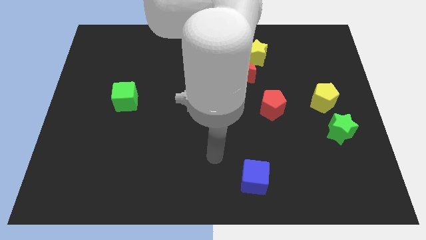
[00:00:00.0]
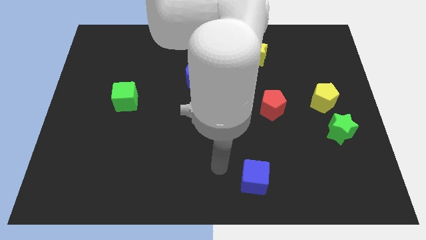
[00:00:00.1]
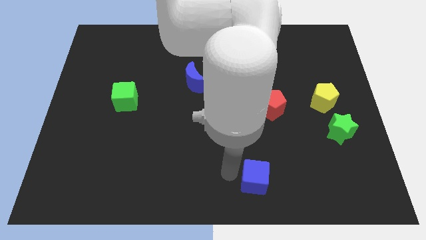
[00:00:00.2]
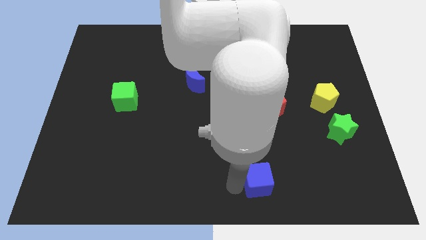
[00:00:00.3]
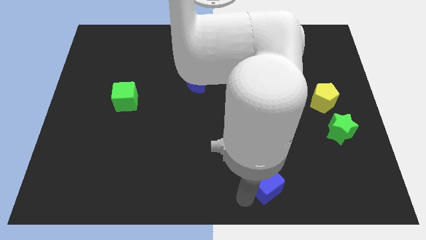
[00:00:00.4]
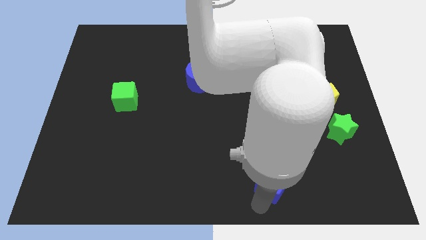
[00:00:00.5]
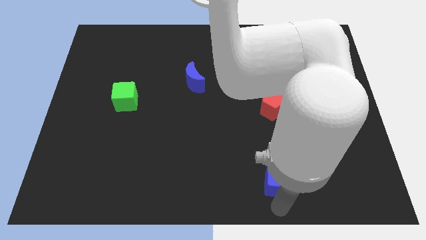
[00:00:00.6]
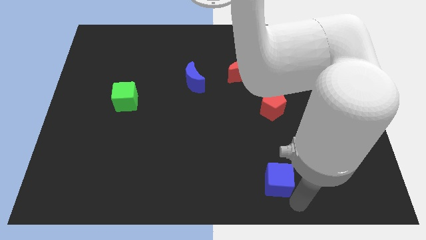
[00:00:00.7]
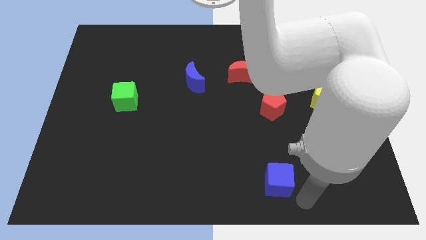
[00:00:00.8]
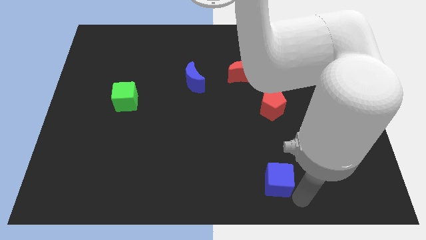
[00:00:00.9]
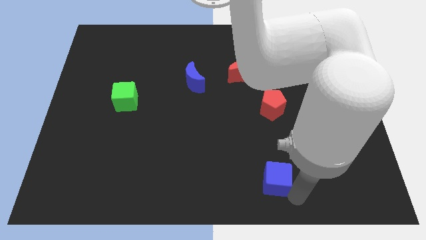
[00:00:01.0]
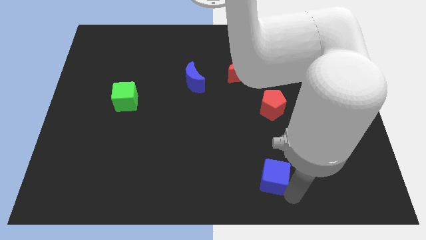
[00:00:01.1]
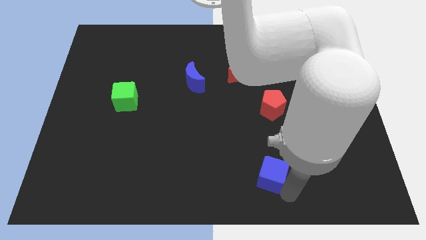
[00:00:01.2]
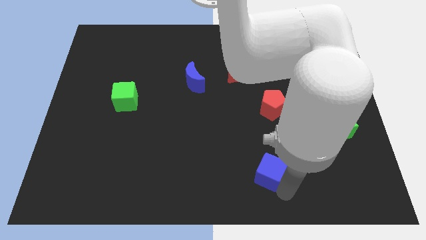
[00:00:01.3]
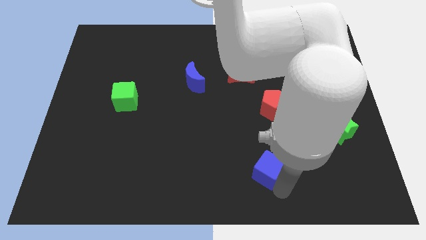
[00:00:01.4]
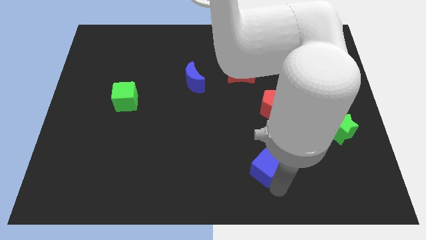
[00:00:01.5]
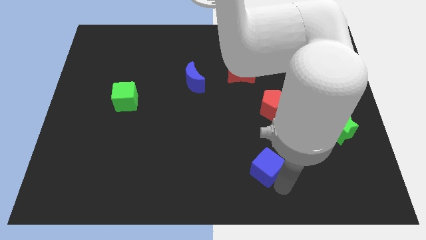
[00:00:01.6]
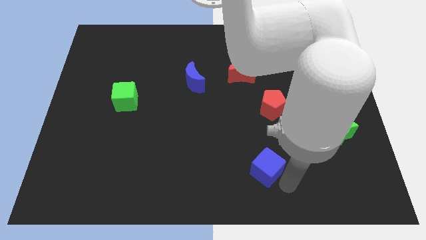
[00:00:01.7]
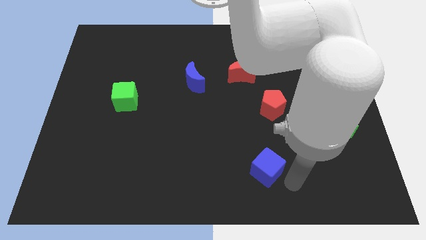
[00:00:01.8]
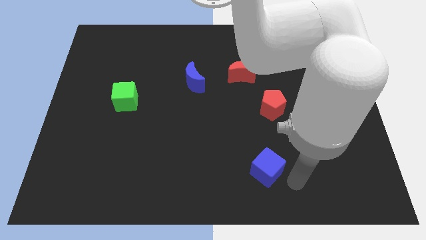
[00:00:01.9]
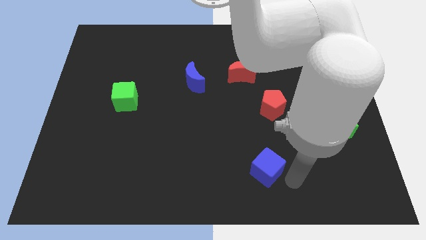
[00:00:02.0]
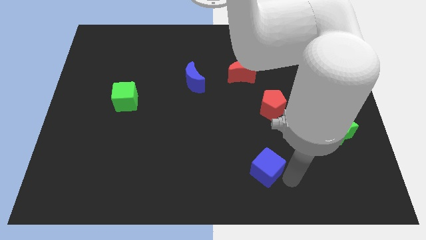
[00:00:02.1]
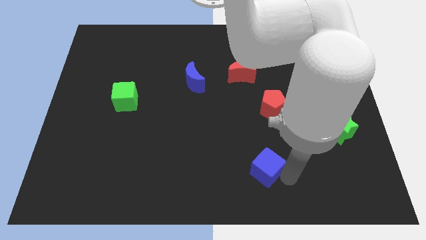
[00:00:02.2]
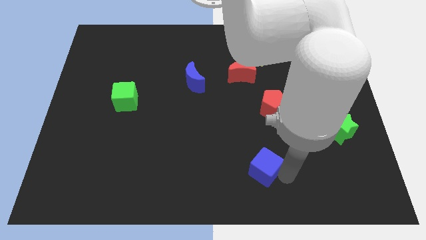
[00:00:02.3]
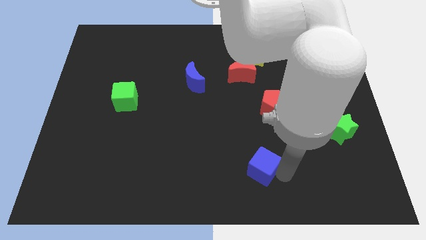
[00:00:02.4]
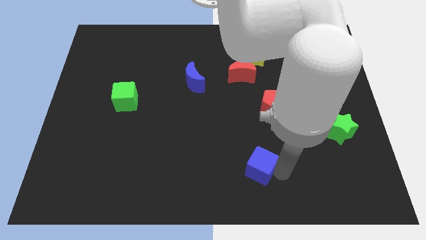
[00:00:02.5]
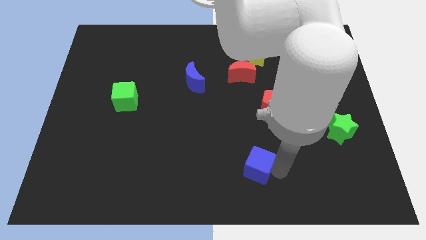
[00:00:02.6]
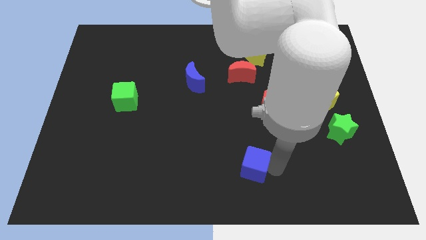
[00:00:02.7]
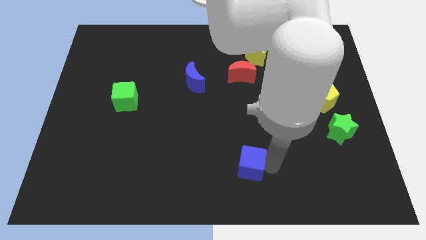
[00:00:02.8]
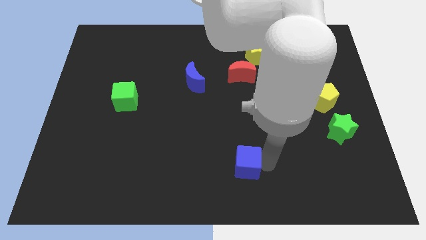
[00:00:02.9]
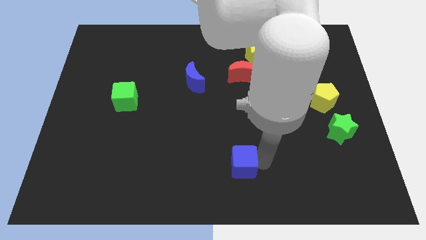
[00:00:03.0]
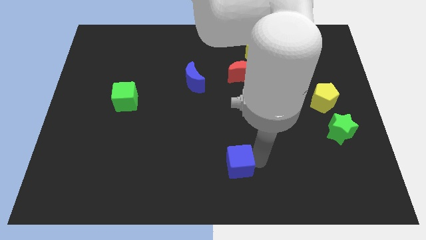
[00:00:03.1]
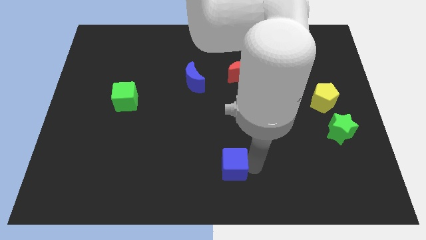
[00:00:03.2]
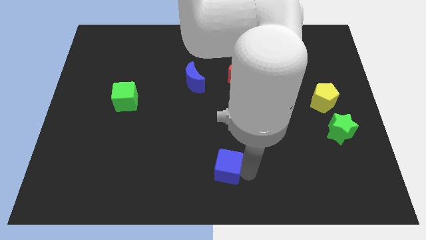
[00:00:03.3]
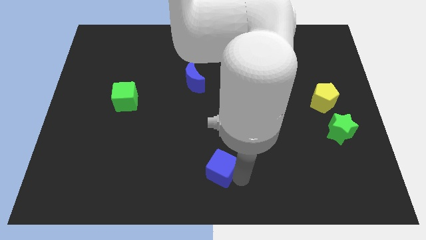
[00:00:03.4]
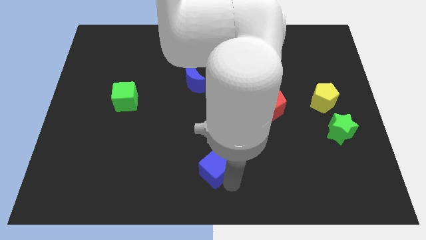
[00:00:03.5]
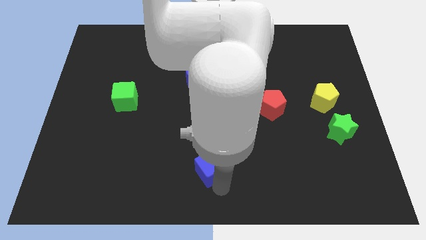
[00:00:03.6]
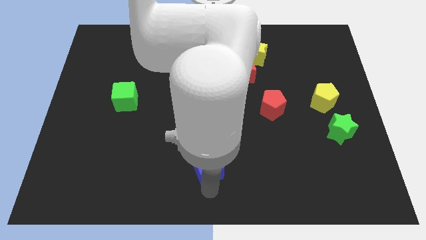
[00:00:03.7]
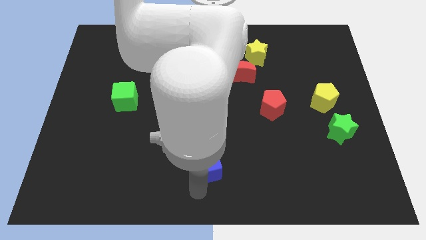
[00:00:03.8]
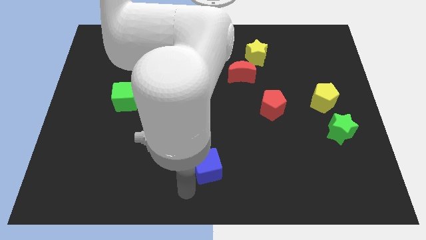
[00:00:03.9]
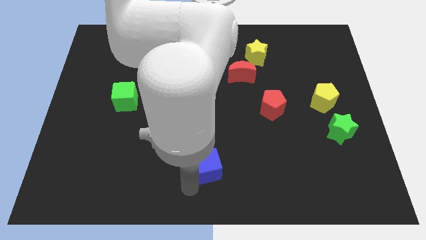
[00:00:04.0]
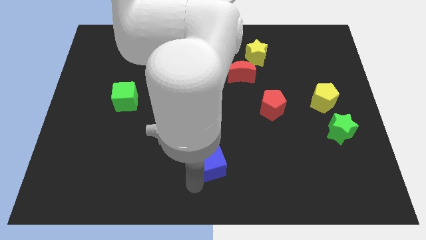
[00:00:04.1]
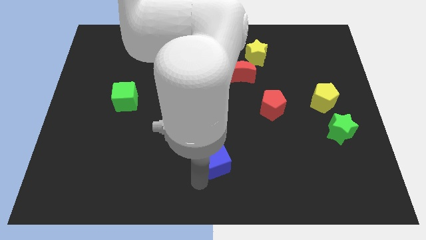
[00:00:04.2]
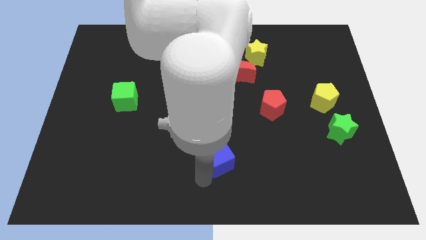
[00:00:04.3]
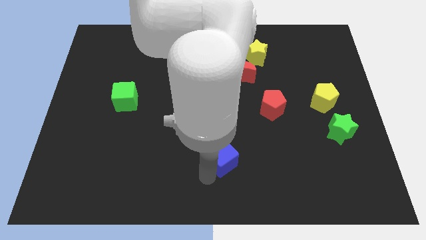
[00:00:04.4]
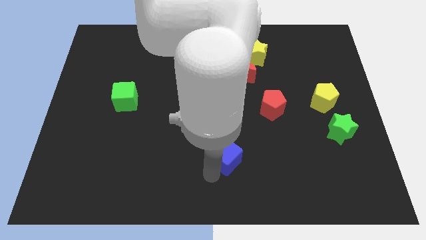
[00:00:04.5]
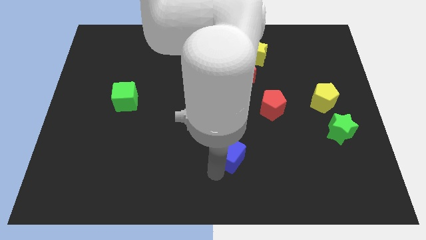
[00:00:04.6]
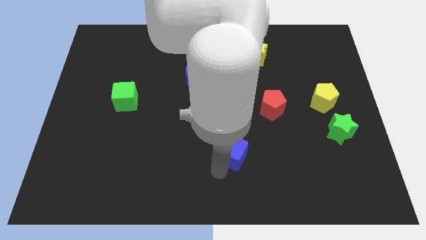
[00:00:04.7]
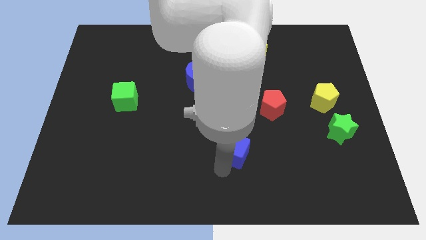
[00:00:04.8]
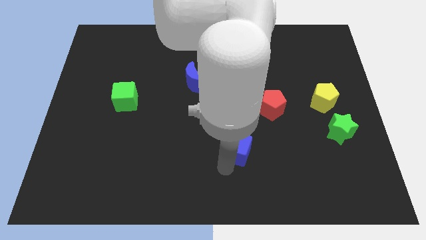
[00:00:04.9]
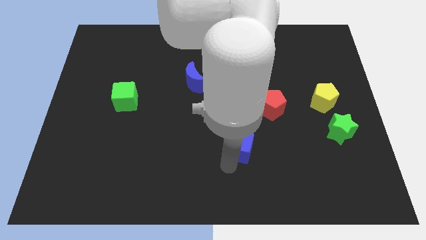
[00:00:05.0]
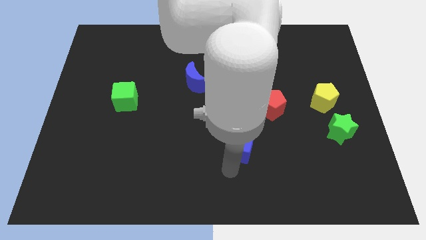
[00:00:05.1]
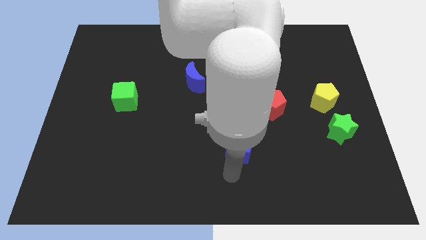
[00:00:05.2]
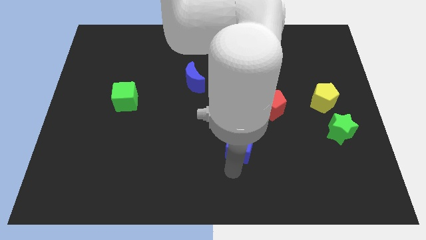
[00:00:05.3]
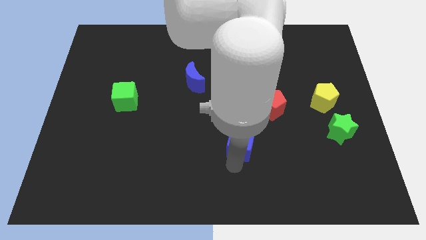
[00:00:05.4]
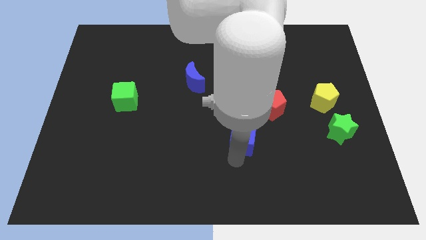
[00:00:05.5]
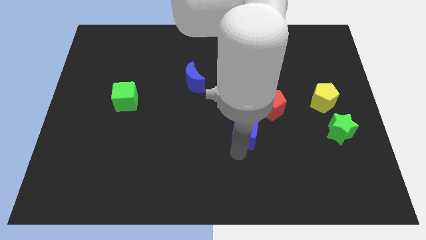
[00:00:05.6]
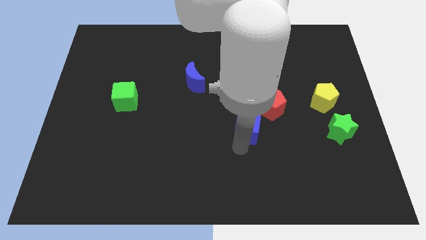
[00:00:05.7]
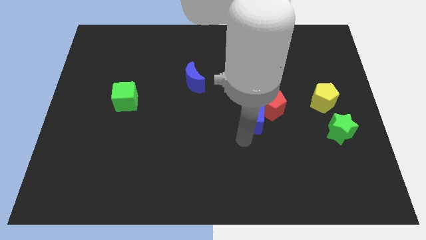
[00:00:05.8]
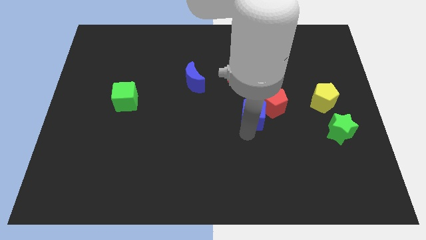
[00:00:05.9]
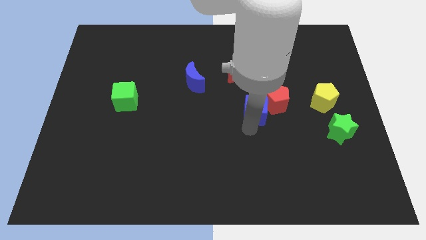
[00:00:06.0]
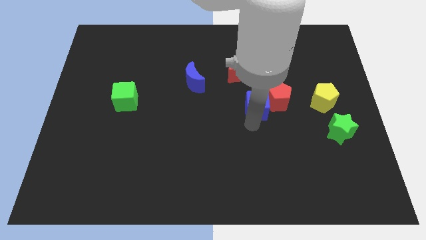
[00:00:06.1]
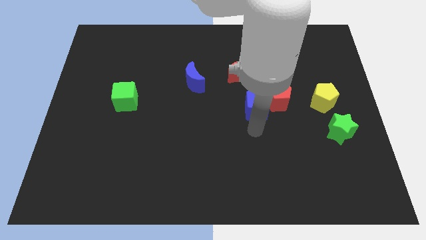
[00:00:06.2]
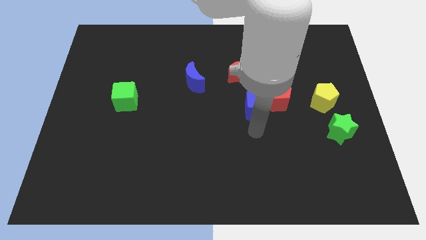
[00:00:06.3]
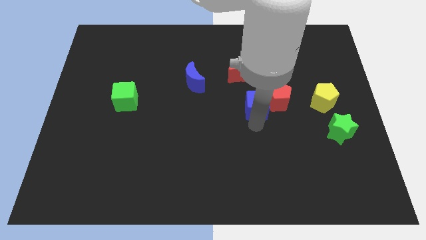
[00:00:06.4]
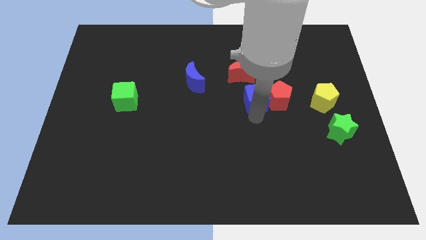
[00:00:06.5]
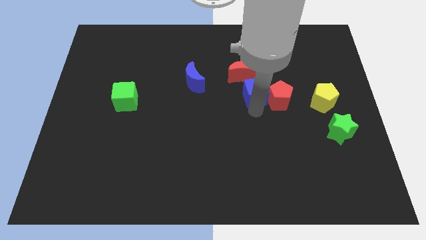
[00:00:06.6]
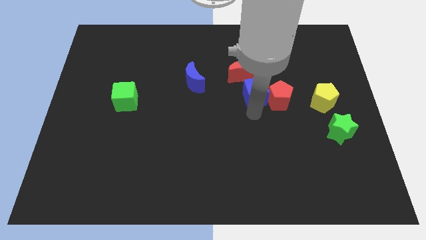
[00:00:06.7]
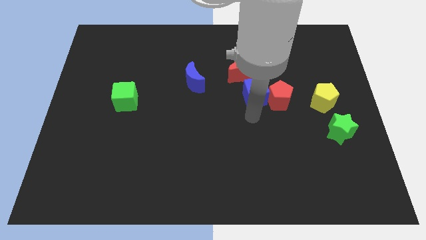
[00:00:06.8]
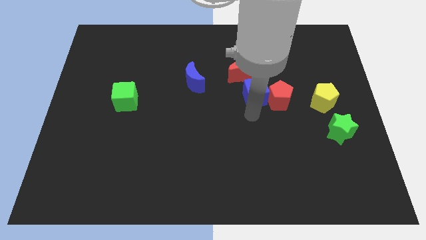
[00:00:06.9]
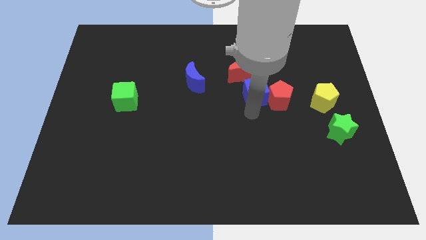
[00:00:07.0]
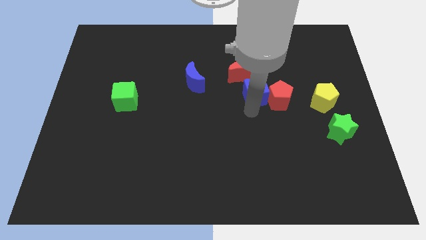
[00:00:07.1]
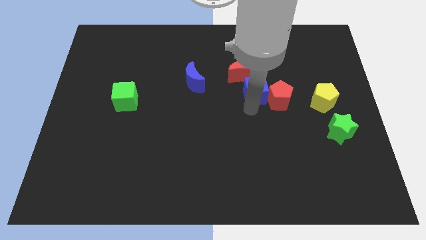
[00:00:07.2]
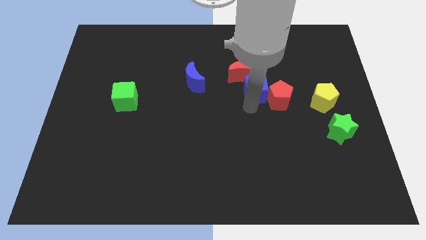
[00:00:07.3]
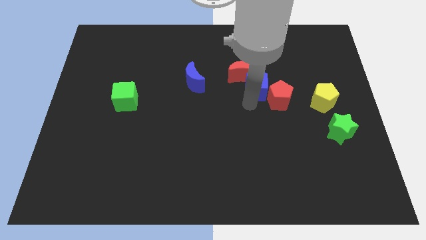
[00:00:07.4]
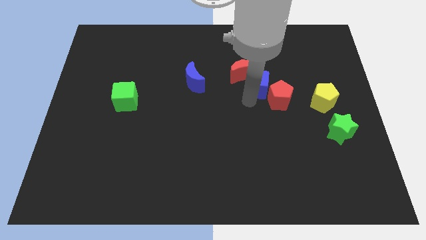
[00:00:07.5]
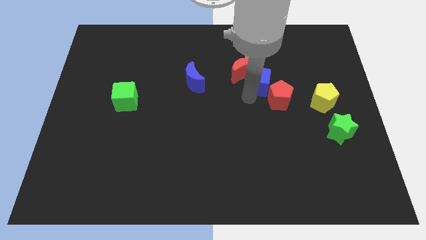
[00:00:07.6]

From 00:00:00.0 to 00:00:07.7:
put the blue cube to the top side of the red pentagon
